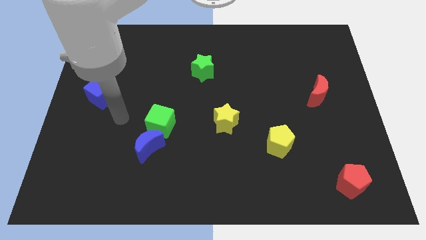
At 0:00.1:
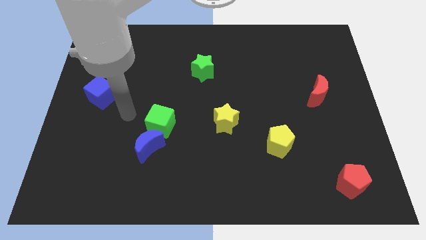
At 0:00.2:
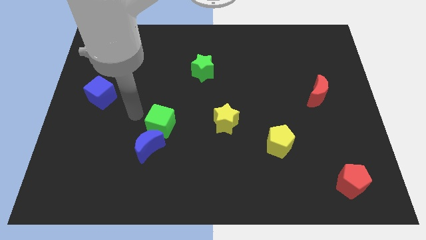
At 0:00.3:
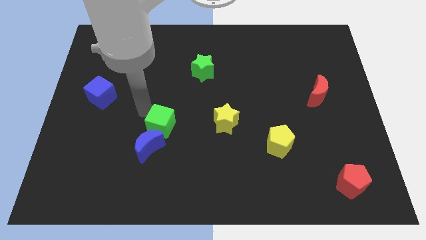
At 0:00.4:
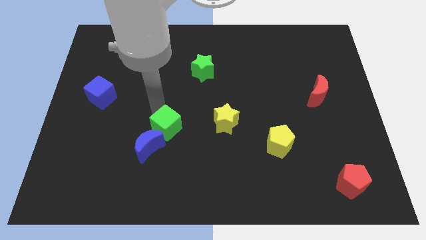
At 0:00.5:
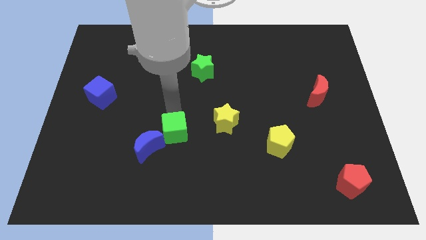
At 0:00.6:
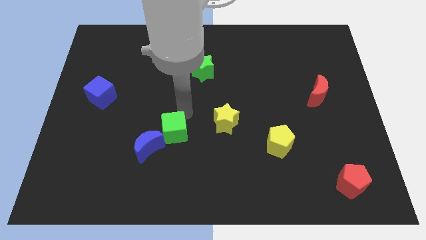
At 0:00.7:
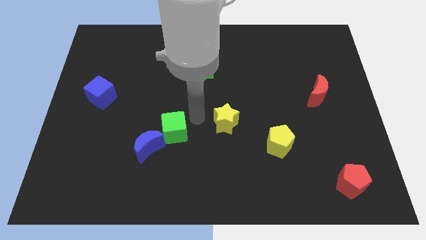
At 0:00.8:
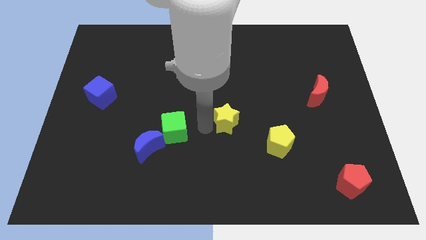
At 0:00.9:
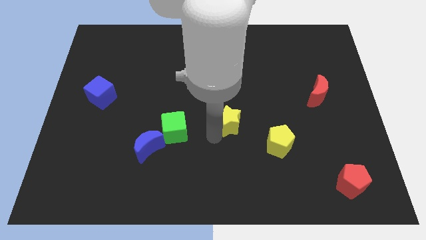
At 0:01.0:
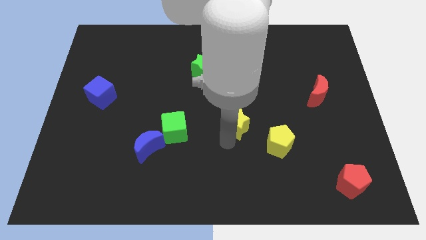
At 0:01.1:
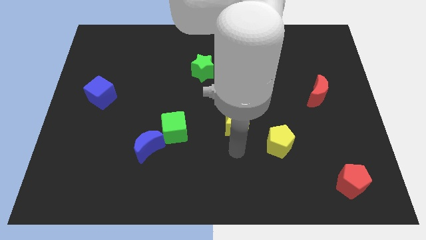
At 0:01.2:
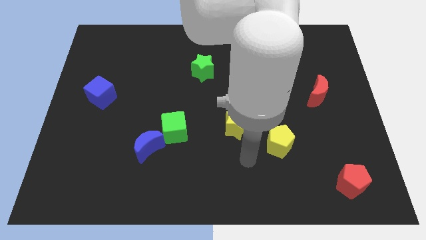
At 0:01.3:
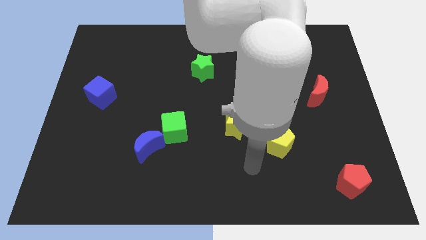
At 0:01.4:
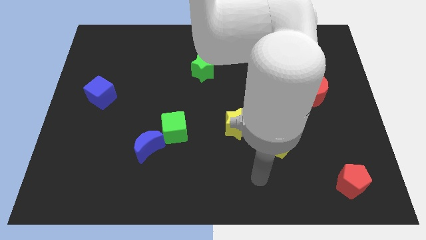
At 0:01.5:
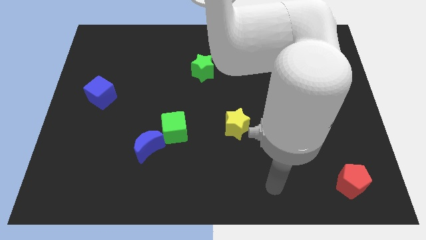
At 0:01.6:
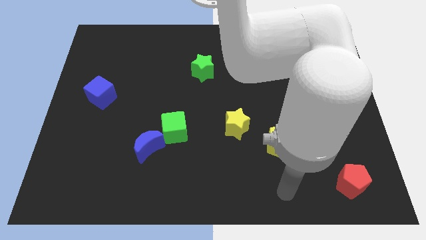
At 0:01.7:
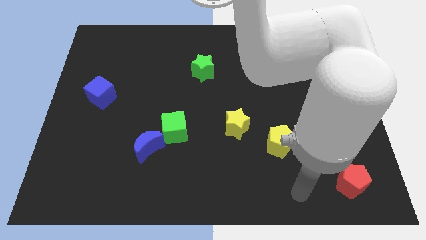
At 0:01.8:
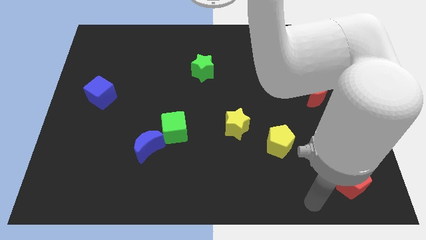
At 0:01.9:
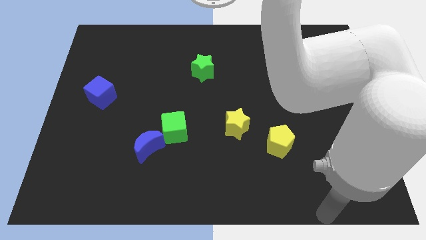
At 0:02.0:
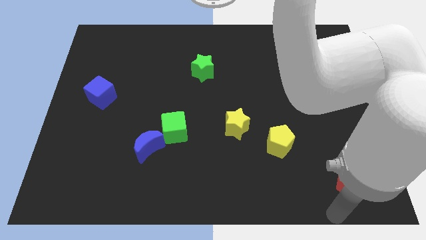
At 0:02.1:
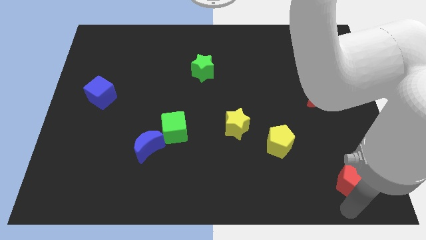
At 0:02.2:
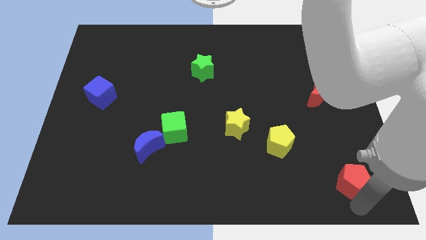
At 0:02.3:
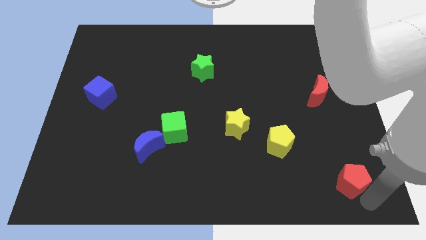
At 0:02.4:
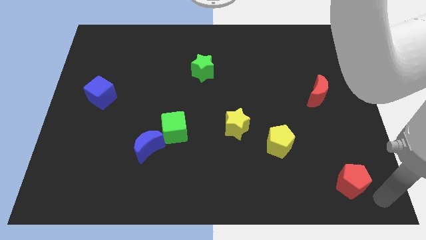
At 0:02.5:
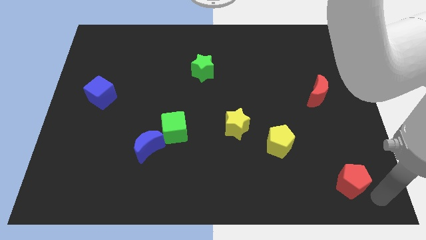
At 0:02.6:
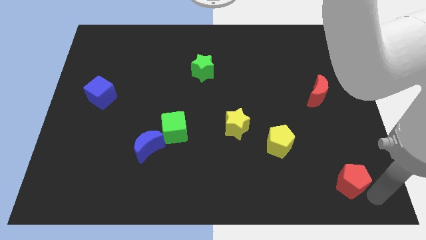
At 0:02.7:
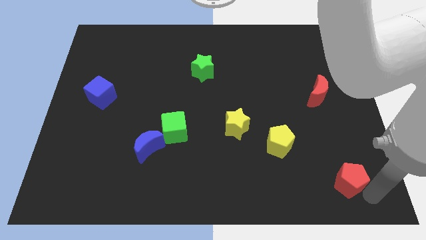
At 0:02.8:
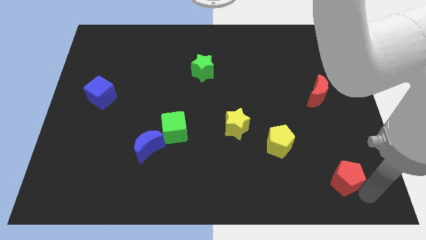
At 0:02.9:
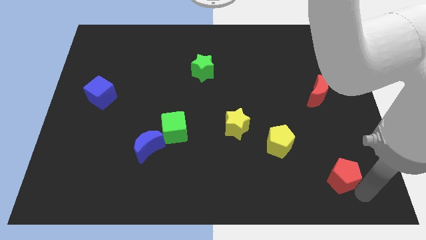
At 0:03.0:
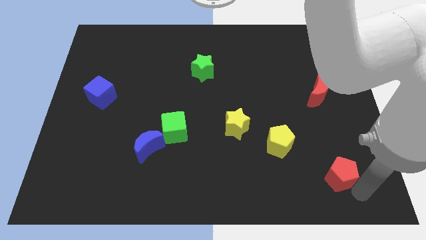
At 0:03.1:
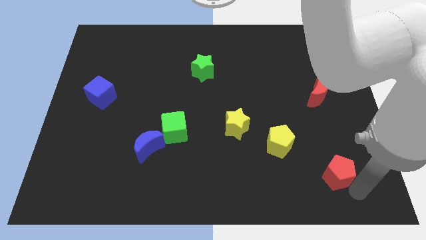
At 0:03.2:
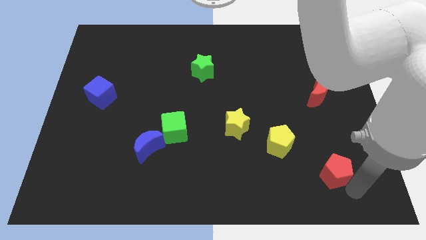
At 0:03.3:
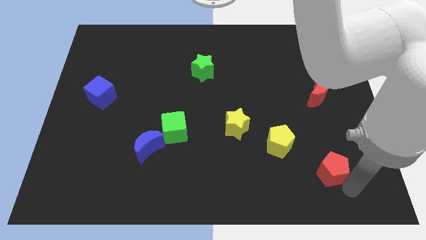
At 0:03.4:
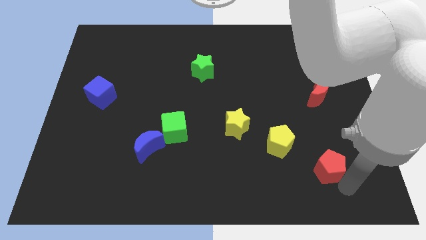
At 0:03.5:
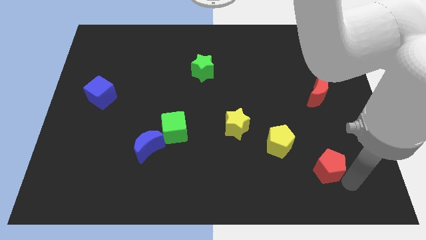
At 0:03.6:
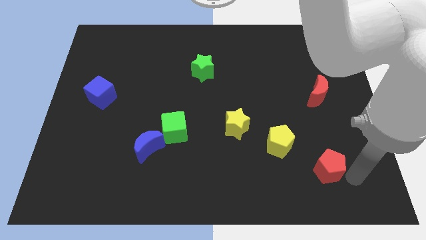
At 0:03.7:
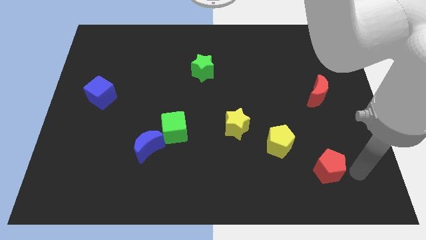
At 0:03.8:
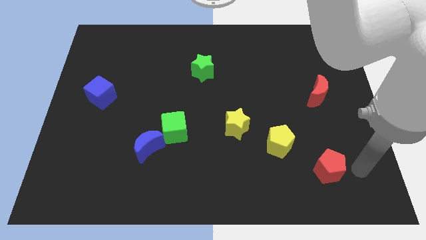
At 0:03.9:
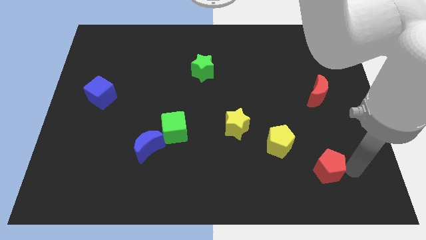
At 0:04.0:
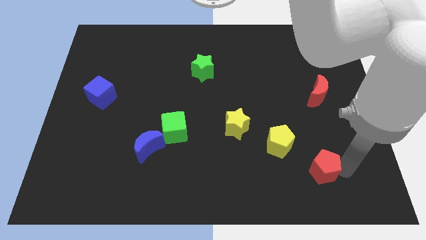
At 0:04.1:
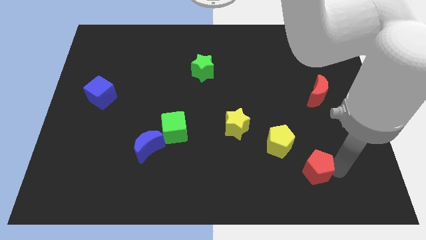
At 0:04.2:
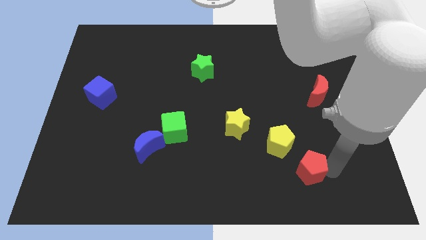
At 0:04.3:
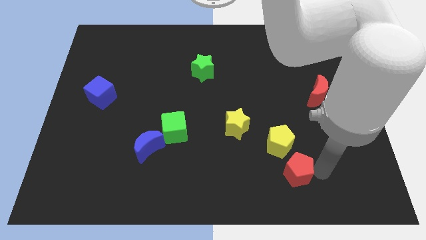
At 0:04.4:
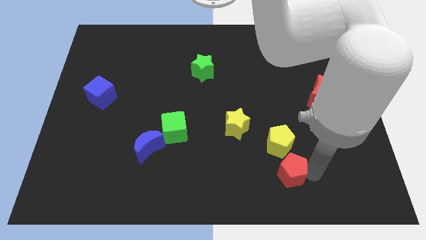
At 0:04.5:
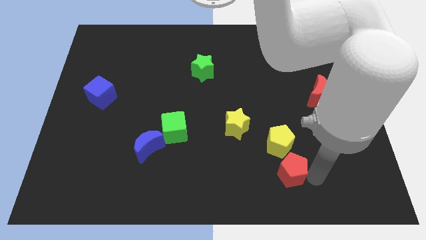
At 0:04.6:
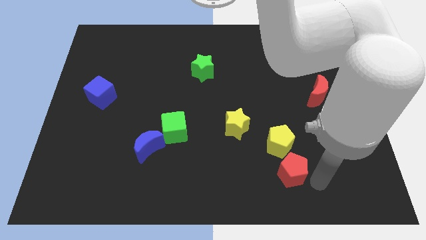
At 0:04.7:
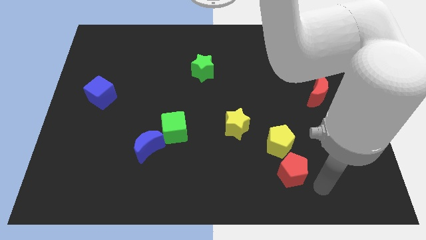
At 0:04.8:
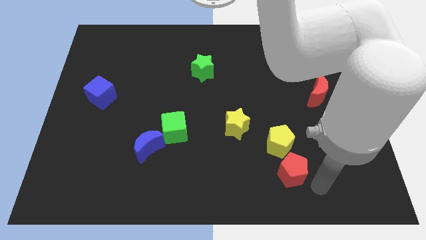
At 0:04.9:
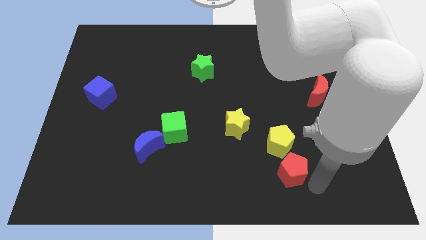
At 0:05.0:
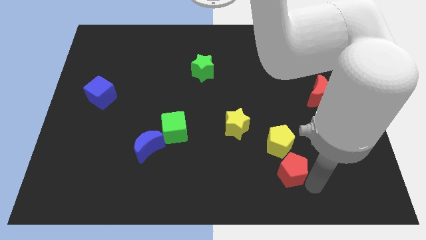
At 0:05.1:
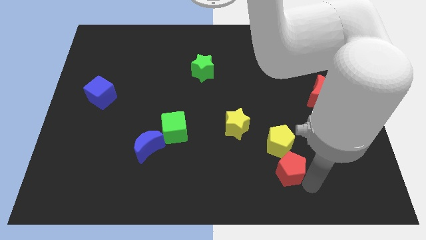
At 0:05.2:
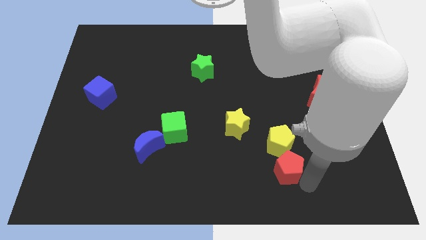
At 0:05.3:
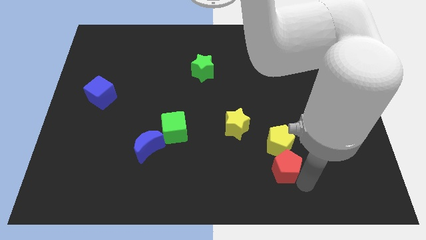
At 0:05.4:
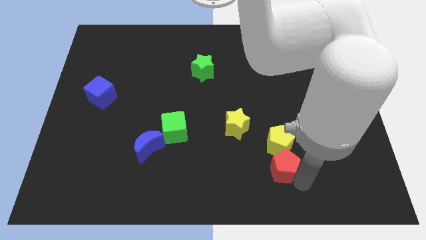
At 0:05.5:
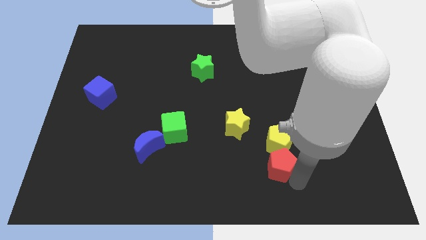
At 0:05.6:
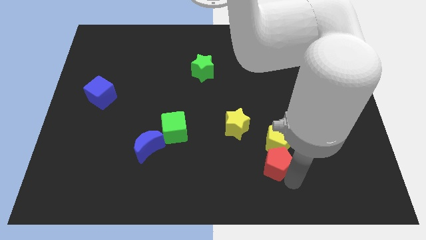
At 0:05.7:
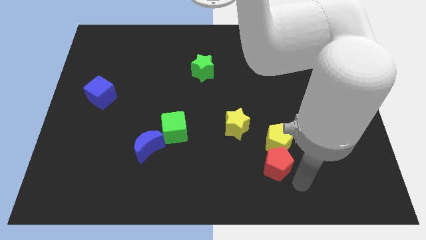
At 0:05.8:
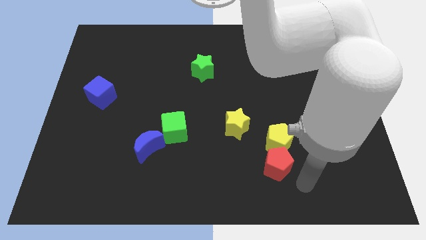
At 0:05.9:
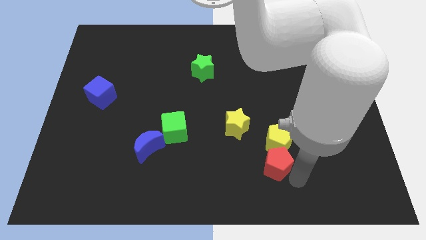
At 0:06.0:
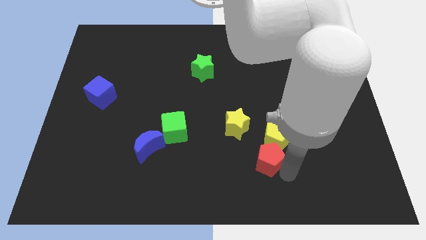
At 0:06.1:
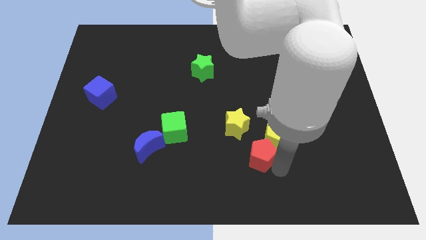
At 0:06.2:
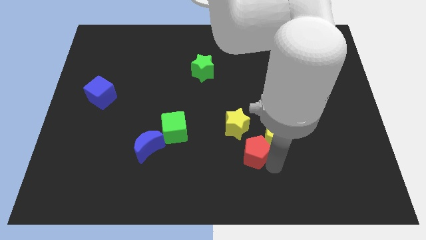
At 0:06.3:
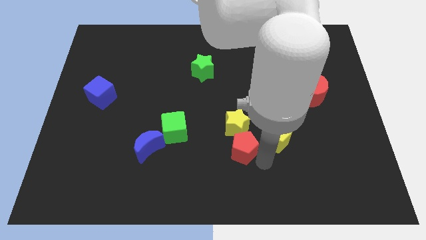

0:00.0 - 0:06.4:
slide the red pentagon to the yellow star

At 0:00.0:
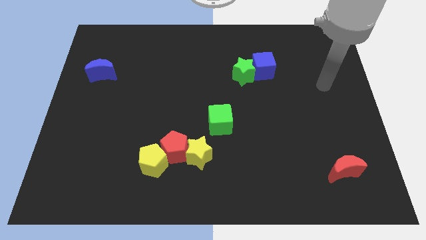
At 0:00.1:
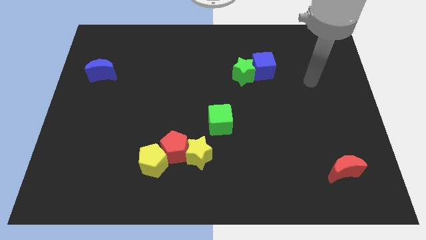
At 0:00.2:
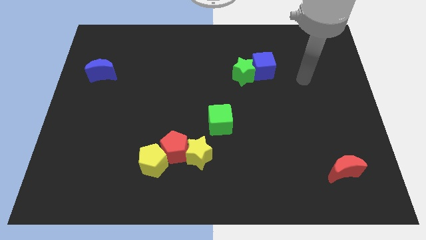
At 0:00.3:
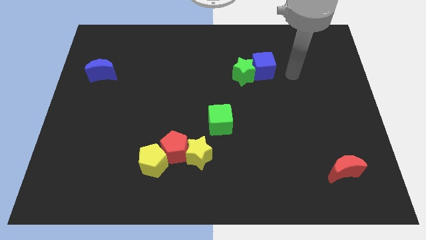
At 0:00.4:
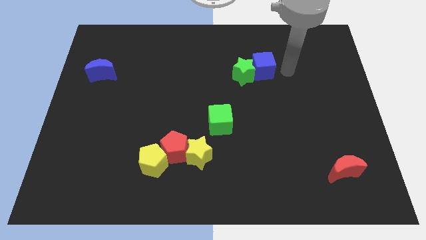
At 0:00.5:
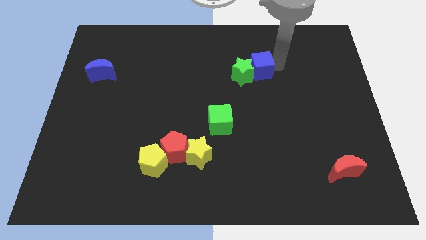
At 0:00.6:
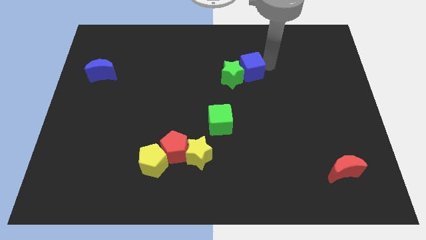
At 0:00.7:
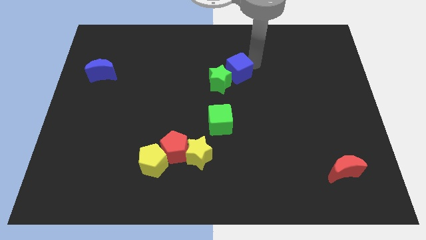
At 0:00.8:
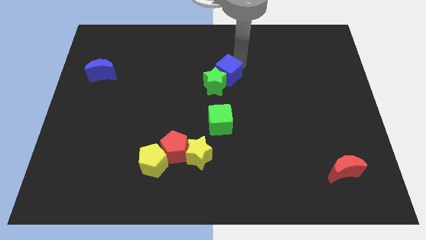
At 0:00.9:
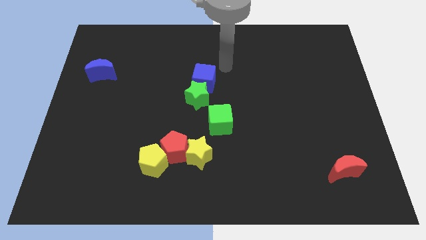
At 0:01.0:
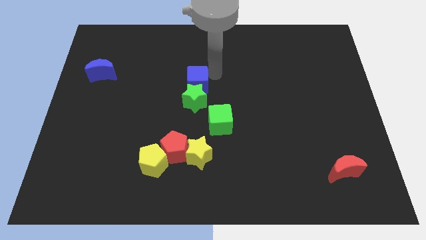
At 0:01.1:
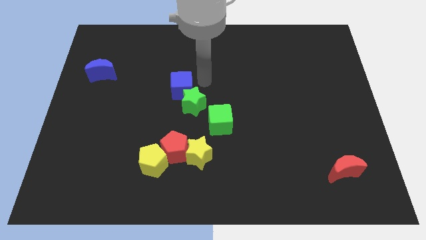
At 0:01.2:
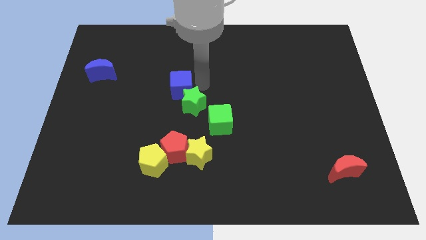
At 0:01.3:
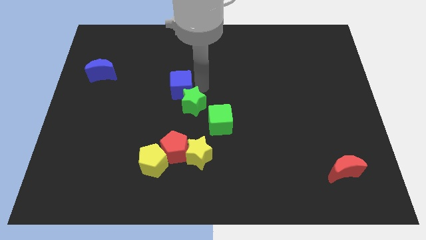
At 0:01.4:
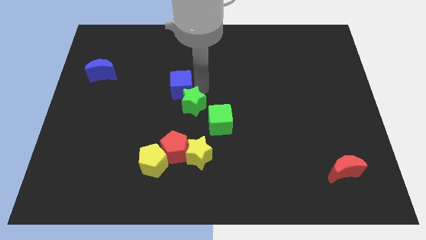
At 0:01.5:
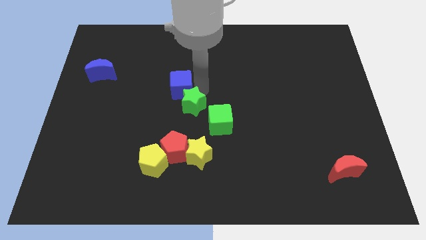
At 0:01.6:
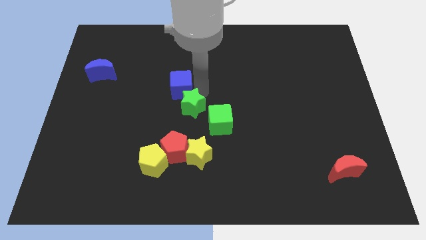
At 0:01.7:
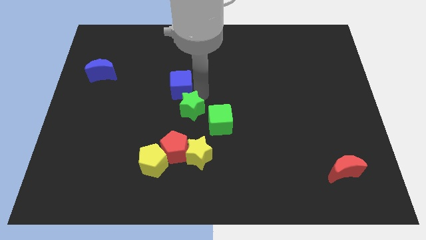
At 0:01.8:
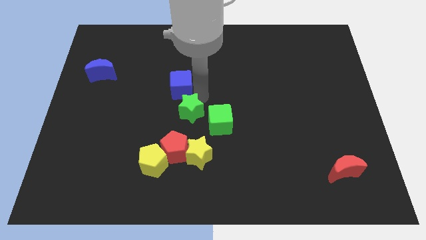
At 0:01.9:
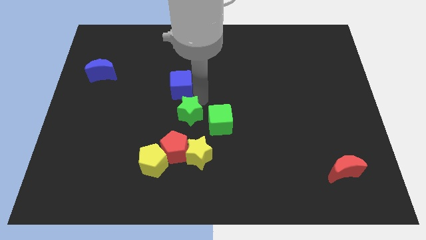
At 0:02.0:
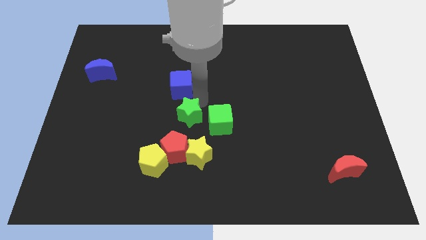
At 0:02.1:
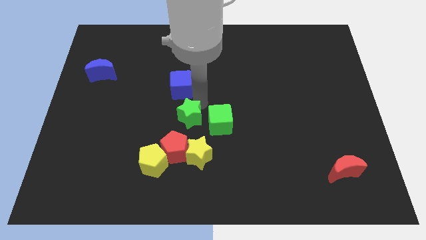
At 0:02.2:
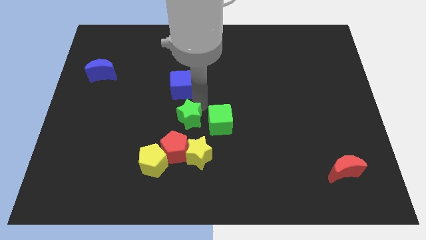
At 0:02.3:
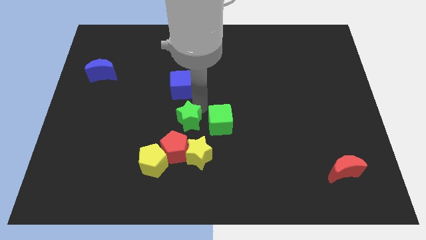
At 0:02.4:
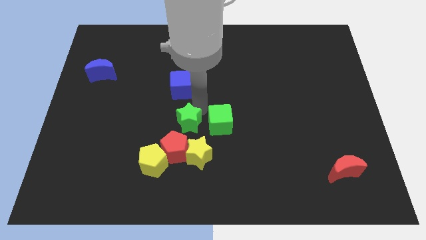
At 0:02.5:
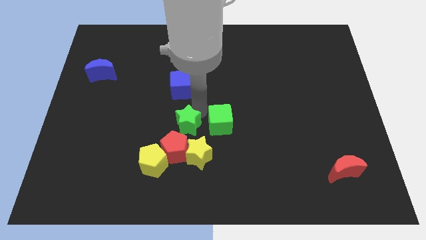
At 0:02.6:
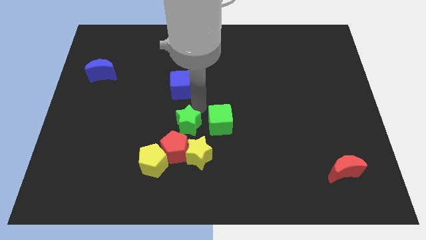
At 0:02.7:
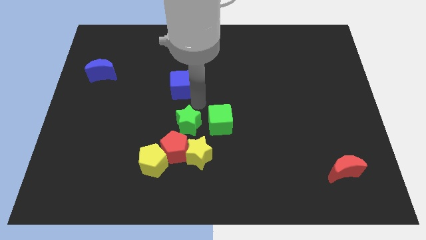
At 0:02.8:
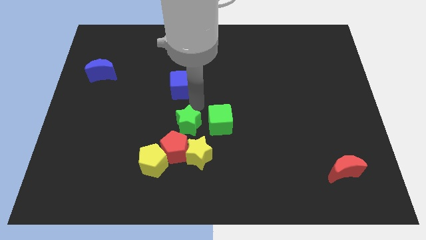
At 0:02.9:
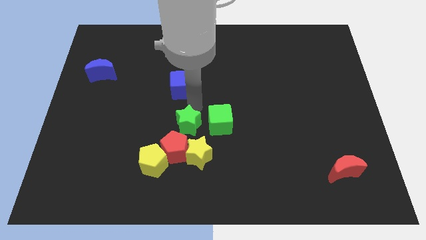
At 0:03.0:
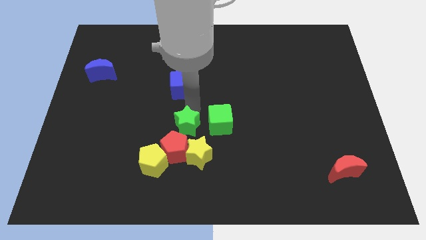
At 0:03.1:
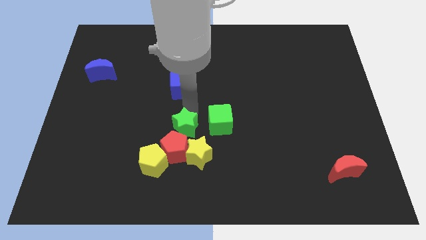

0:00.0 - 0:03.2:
push the green star to the red pentagon
